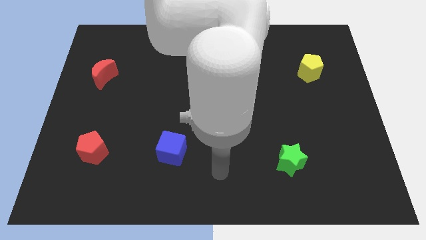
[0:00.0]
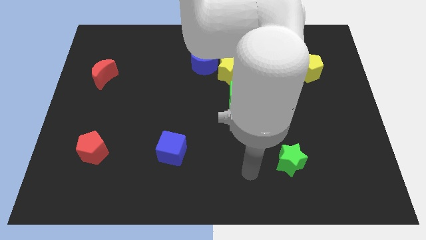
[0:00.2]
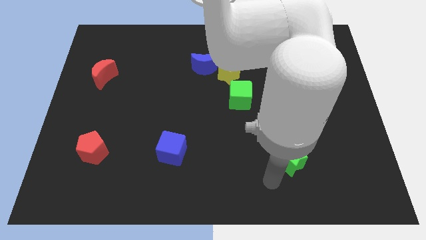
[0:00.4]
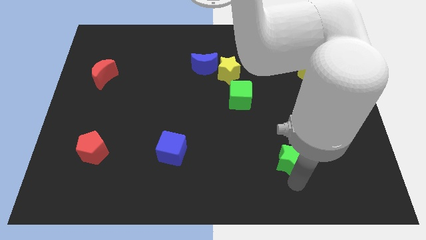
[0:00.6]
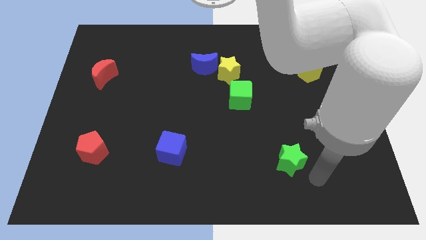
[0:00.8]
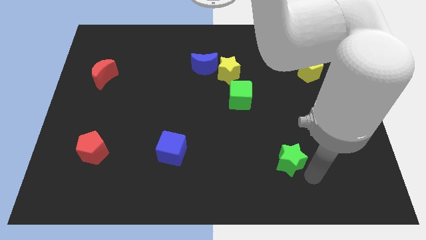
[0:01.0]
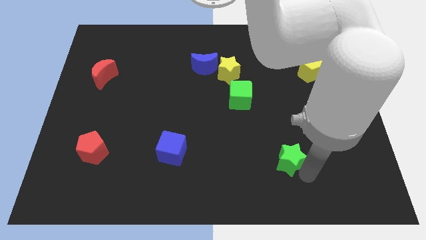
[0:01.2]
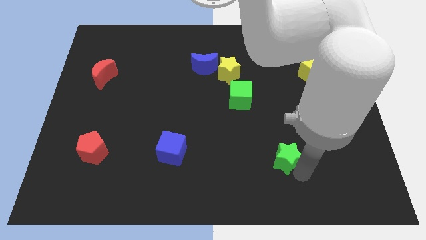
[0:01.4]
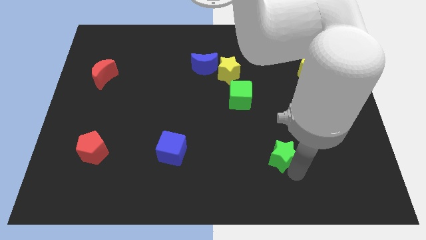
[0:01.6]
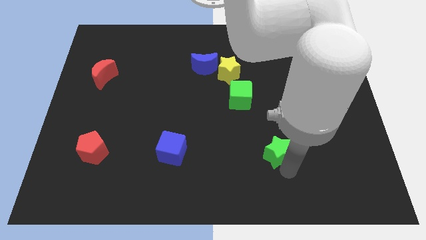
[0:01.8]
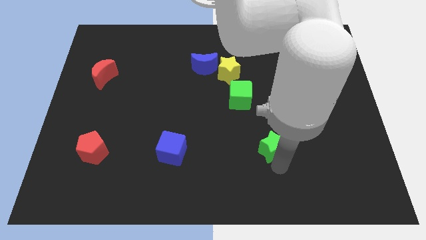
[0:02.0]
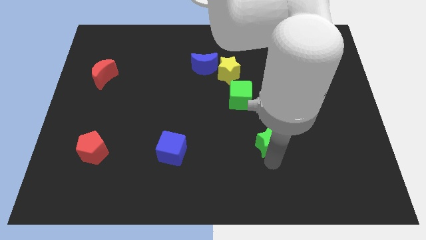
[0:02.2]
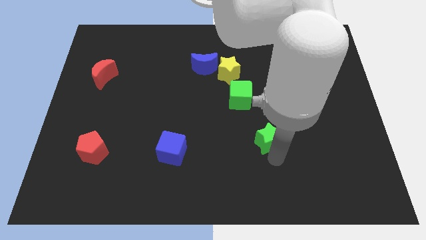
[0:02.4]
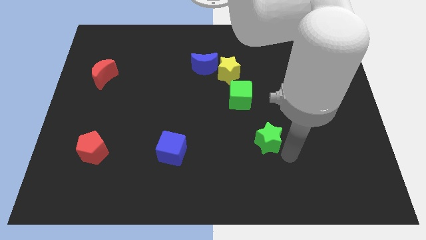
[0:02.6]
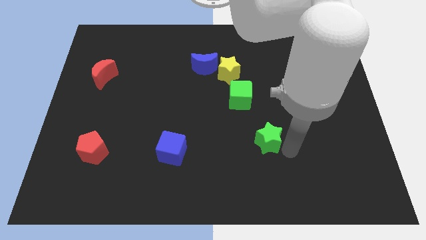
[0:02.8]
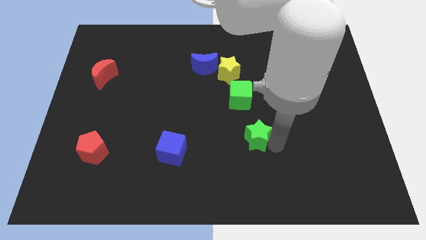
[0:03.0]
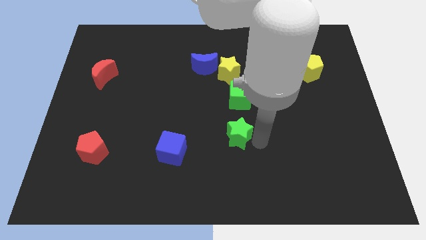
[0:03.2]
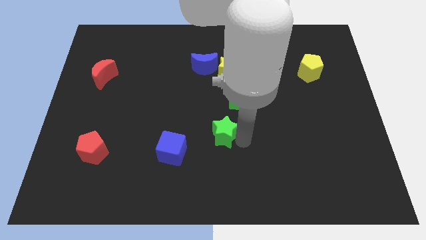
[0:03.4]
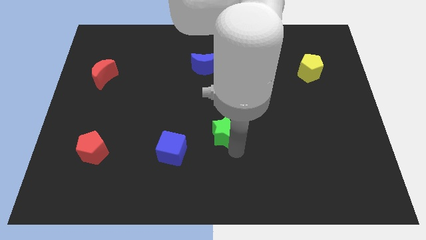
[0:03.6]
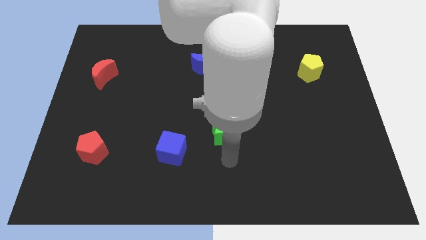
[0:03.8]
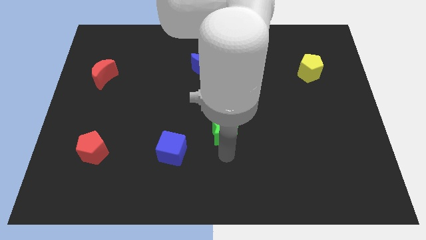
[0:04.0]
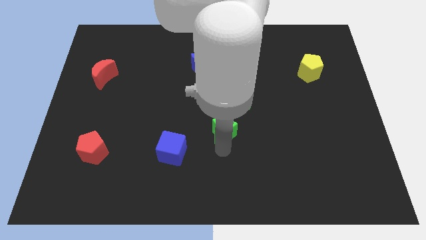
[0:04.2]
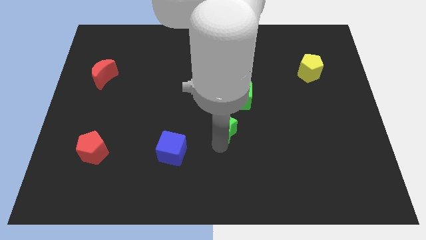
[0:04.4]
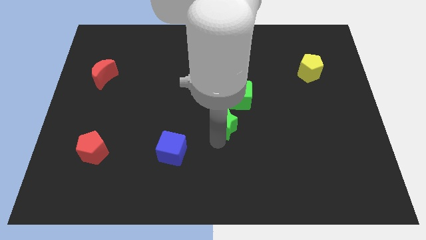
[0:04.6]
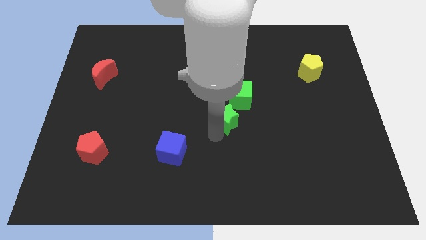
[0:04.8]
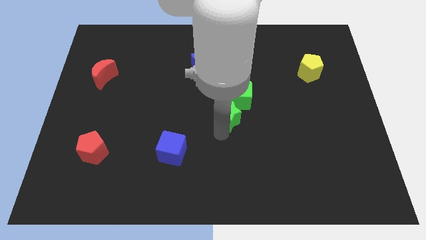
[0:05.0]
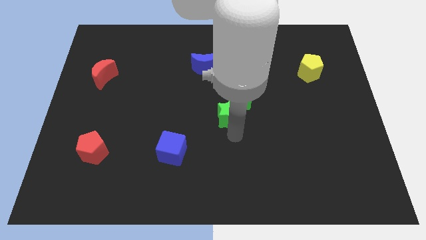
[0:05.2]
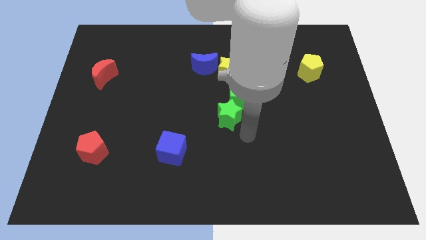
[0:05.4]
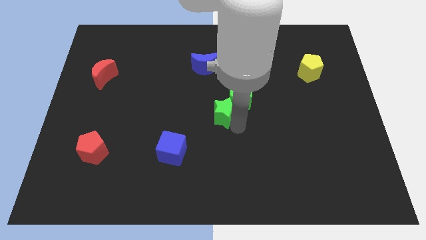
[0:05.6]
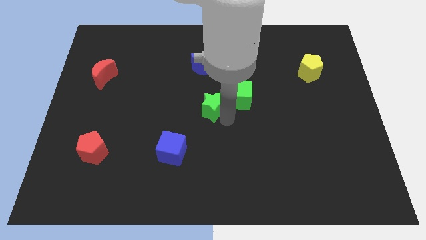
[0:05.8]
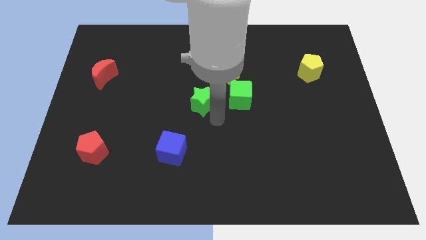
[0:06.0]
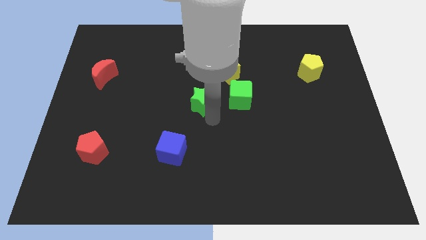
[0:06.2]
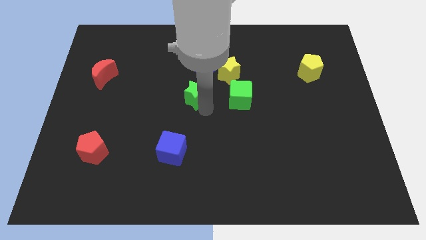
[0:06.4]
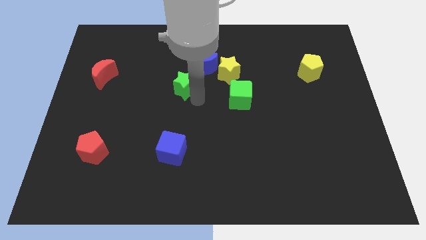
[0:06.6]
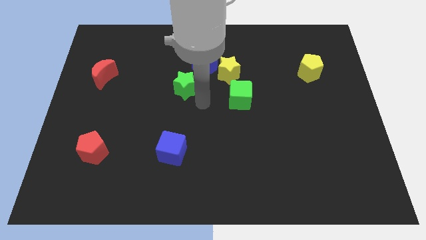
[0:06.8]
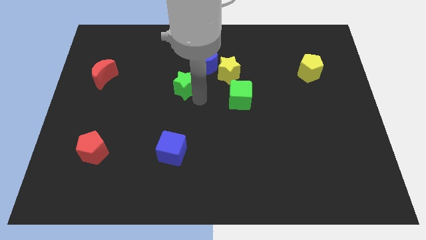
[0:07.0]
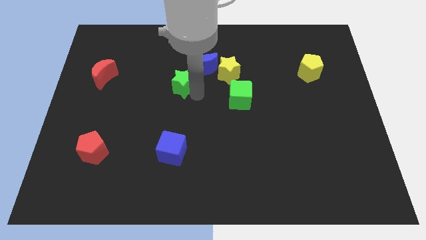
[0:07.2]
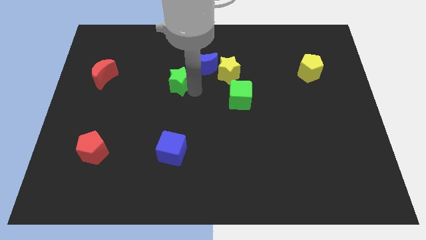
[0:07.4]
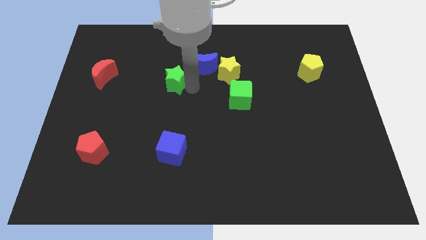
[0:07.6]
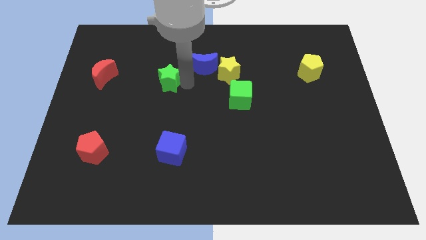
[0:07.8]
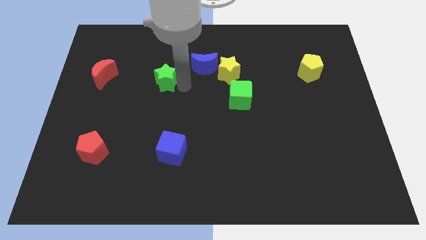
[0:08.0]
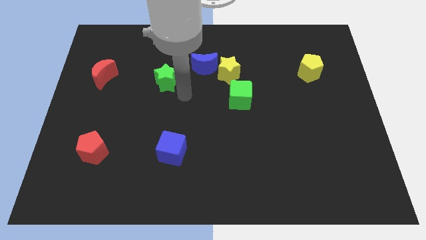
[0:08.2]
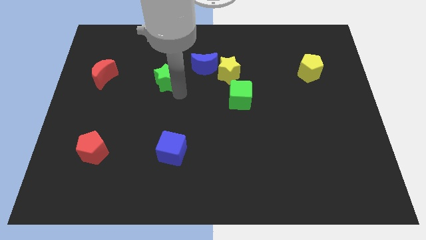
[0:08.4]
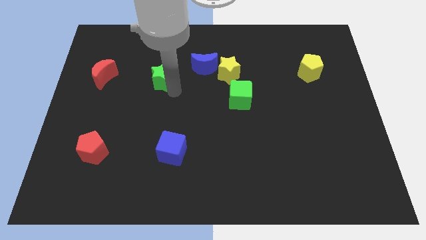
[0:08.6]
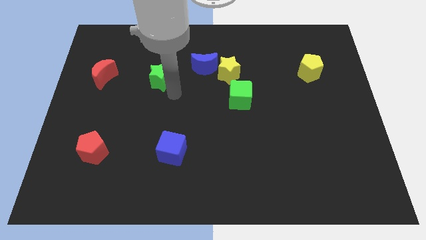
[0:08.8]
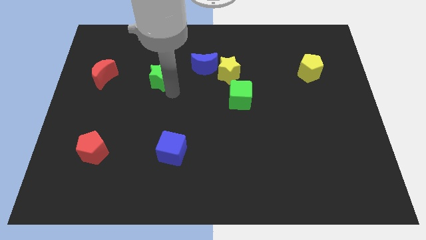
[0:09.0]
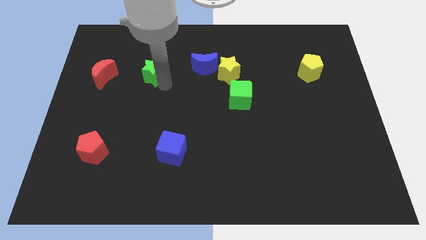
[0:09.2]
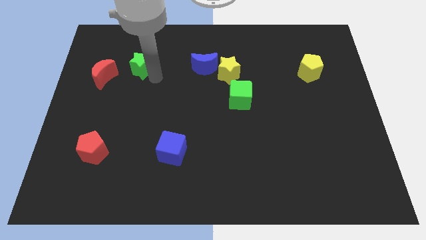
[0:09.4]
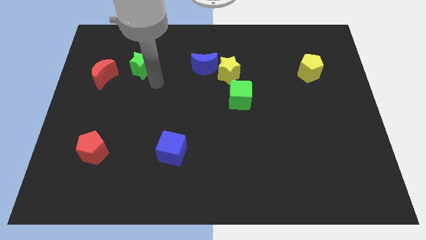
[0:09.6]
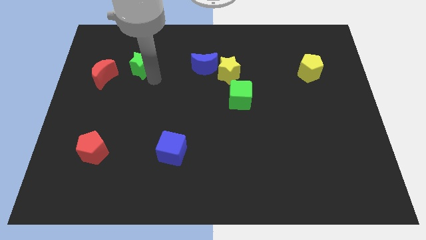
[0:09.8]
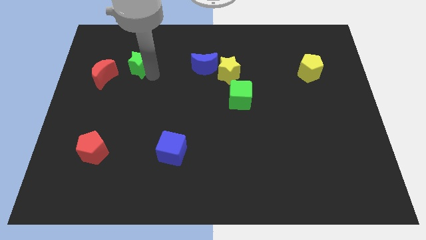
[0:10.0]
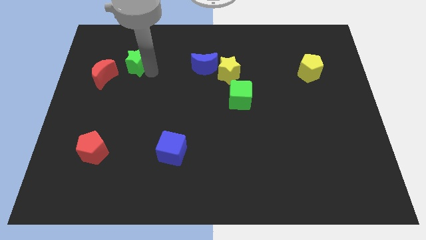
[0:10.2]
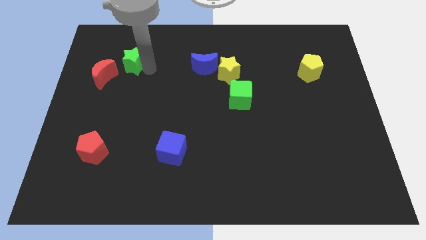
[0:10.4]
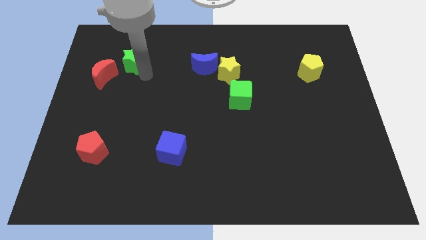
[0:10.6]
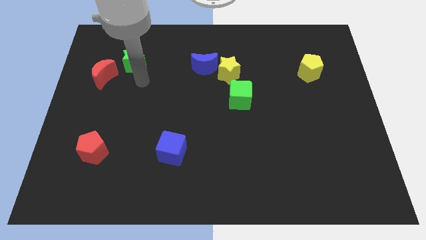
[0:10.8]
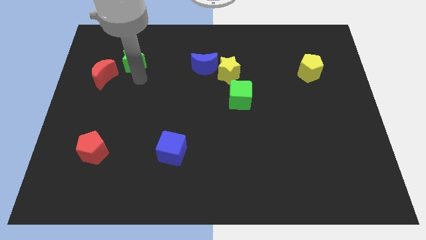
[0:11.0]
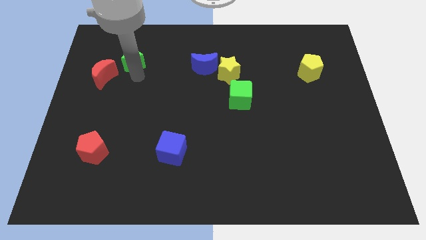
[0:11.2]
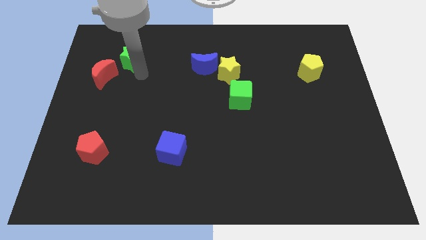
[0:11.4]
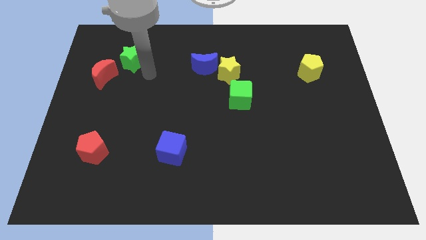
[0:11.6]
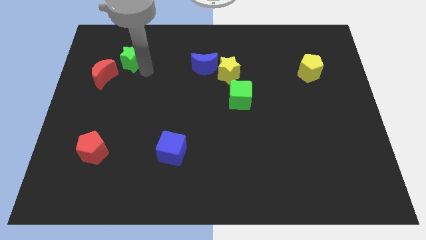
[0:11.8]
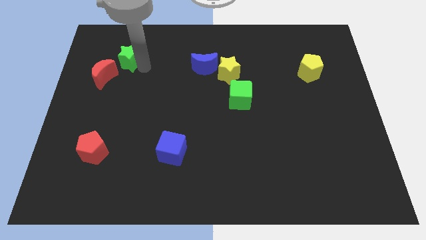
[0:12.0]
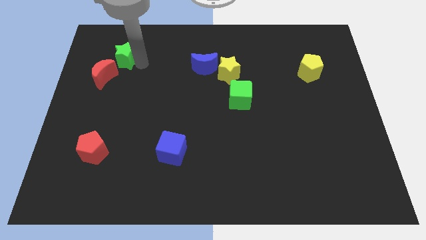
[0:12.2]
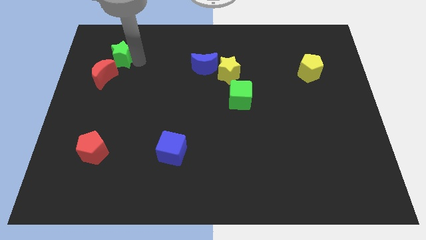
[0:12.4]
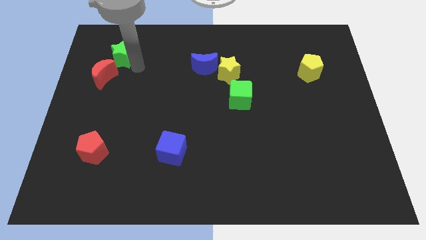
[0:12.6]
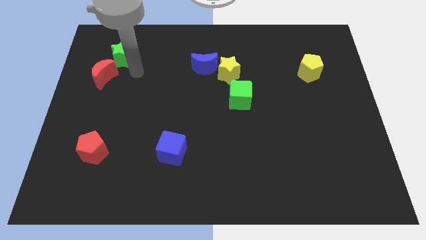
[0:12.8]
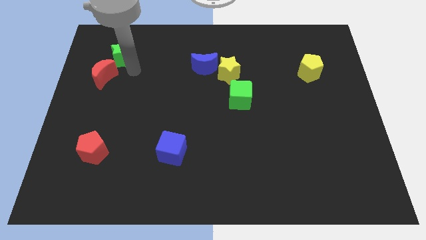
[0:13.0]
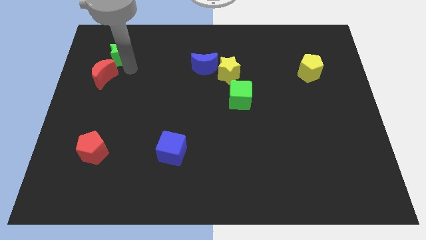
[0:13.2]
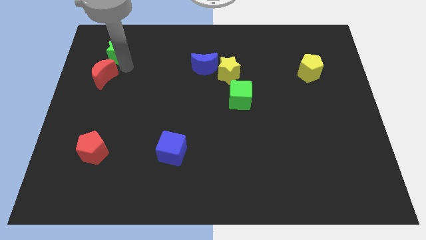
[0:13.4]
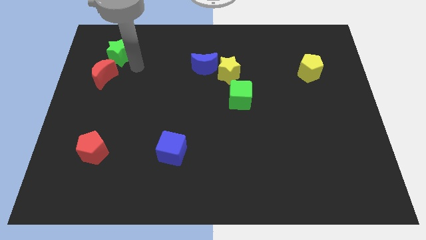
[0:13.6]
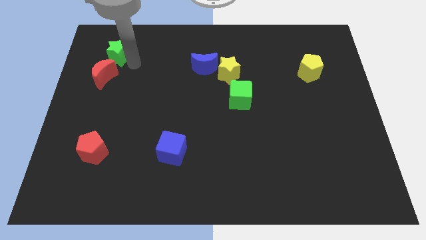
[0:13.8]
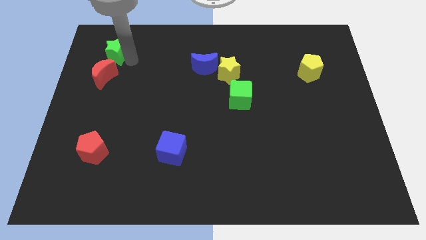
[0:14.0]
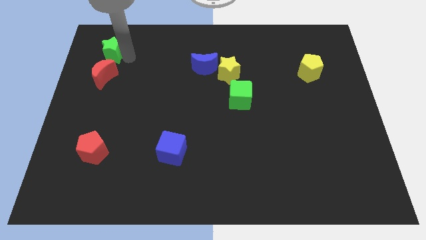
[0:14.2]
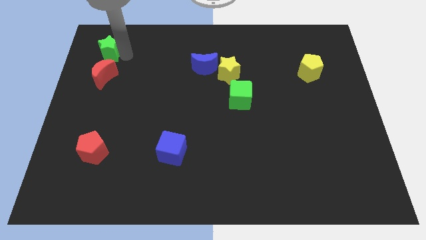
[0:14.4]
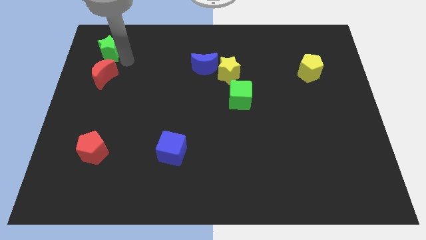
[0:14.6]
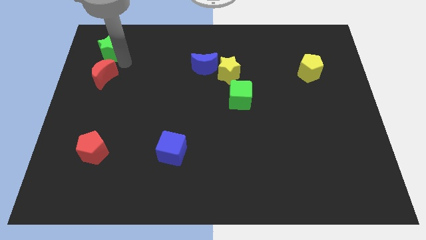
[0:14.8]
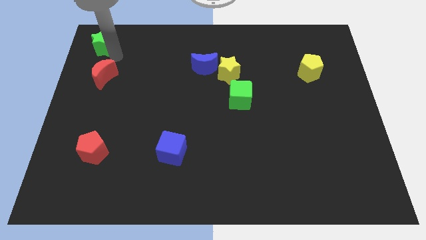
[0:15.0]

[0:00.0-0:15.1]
put the green star to the upper left corner
